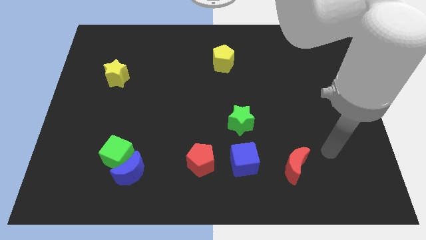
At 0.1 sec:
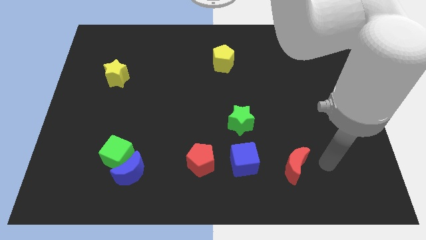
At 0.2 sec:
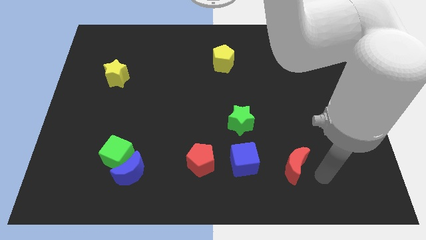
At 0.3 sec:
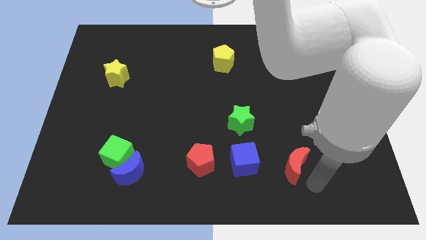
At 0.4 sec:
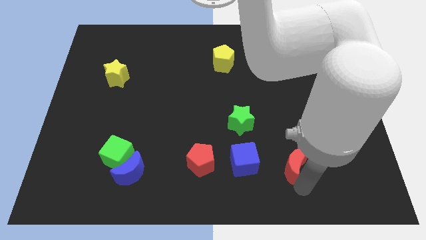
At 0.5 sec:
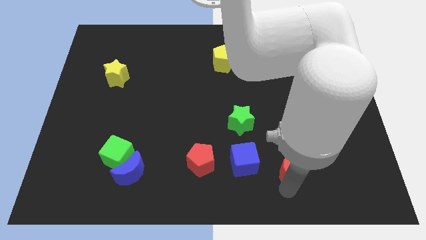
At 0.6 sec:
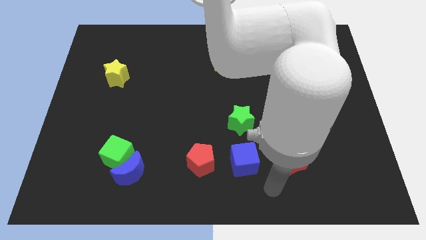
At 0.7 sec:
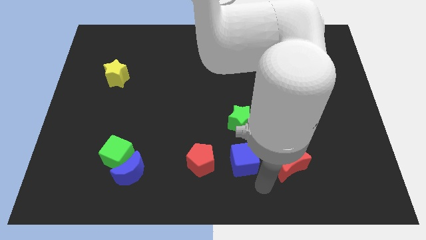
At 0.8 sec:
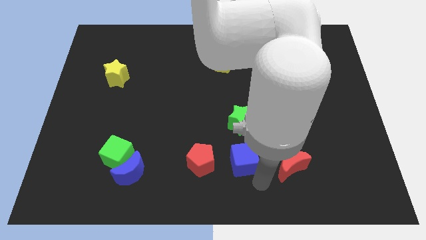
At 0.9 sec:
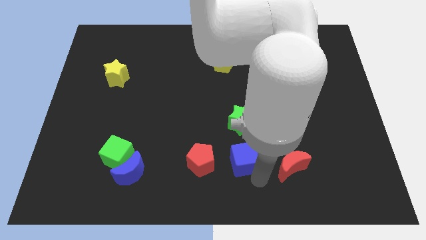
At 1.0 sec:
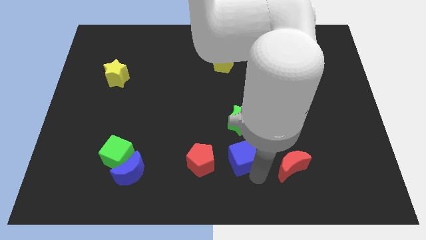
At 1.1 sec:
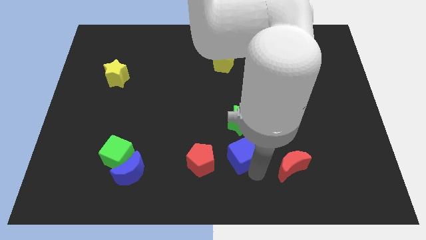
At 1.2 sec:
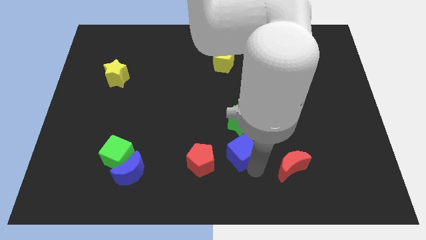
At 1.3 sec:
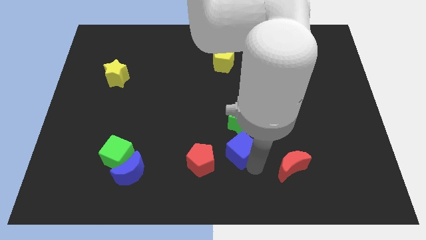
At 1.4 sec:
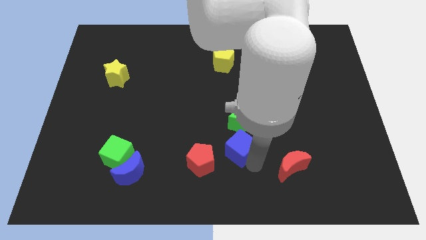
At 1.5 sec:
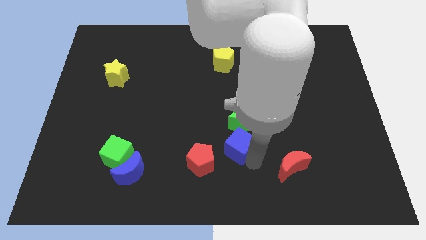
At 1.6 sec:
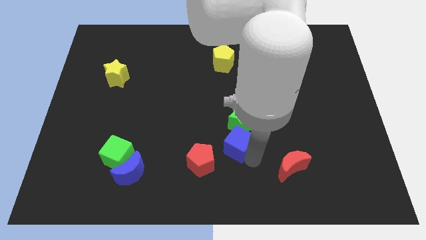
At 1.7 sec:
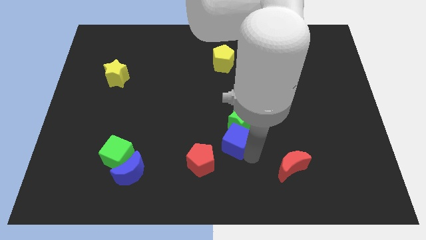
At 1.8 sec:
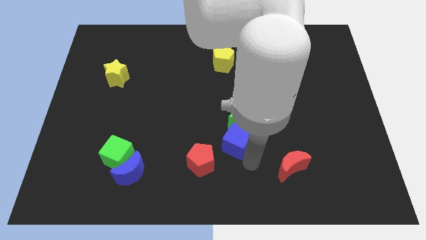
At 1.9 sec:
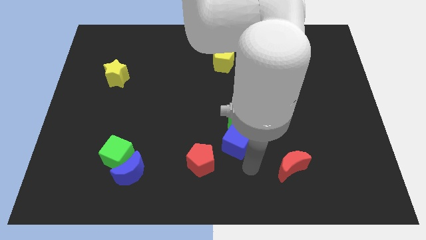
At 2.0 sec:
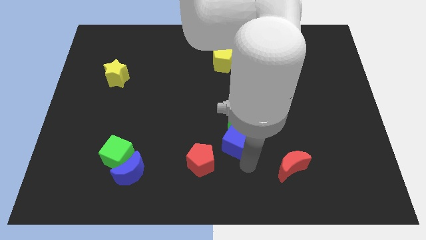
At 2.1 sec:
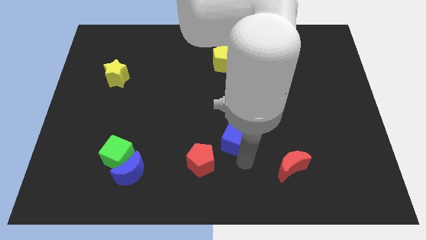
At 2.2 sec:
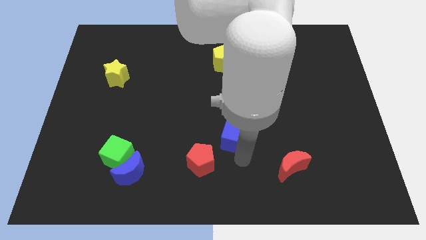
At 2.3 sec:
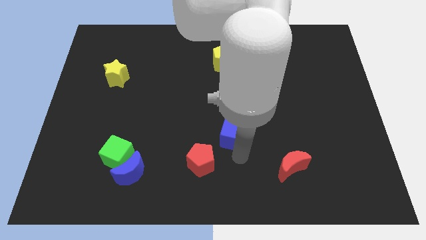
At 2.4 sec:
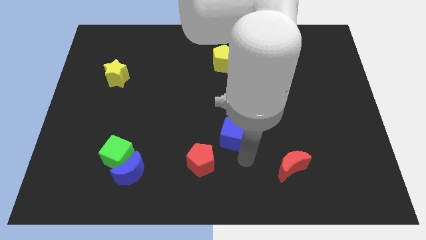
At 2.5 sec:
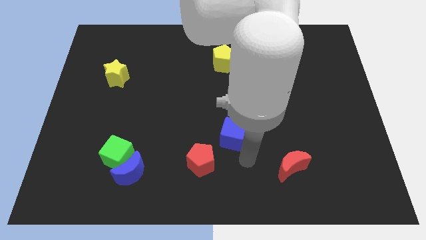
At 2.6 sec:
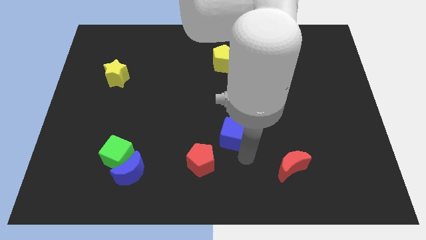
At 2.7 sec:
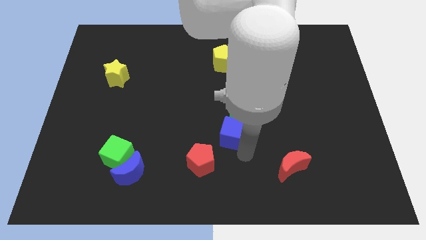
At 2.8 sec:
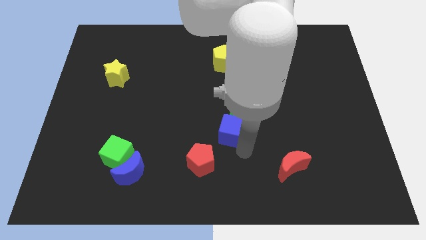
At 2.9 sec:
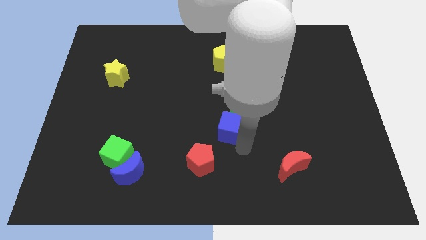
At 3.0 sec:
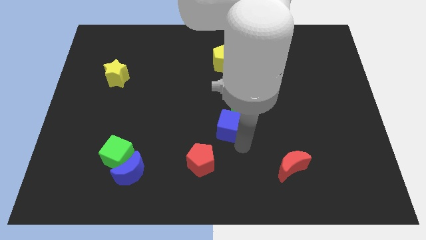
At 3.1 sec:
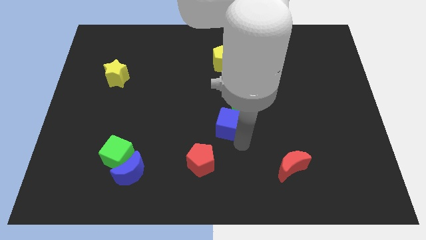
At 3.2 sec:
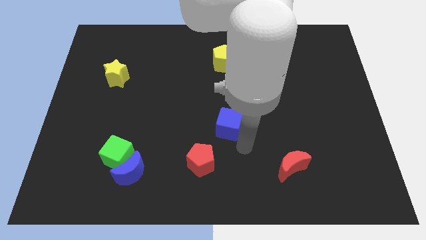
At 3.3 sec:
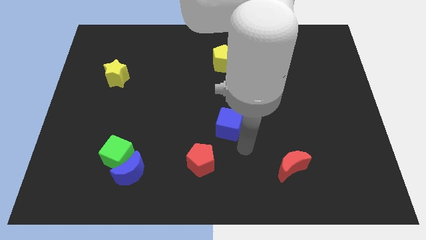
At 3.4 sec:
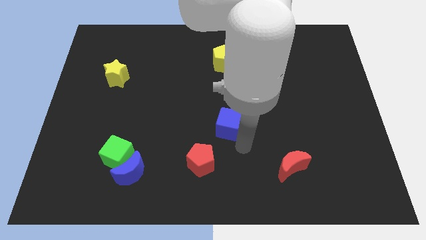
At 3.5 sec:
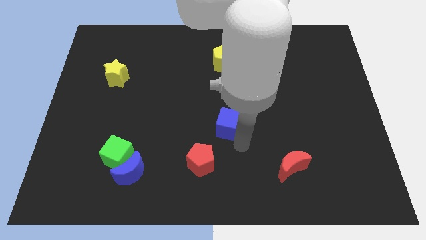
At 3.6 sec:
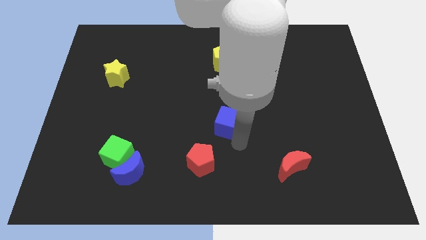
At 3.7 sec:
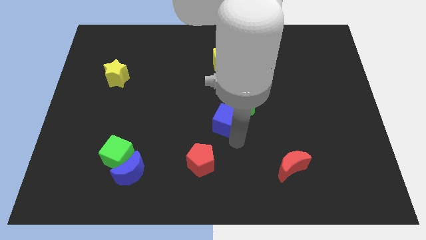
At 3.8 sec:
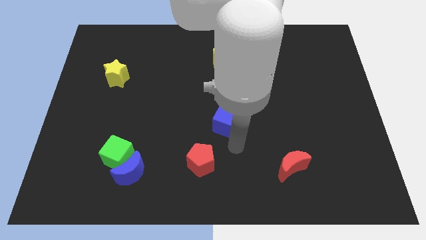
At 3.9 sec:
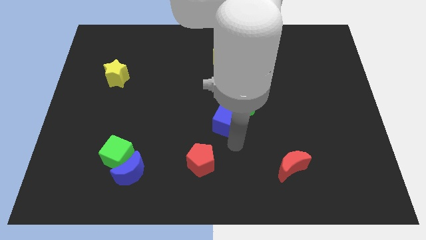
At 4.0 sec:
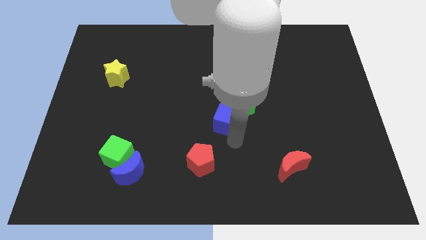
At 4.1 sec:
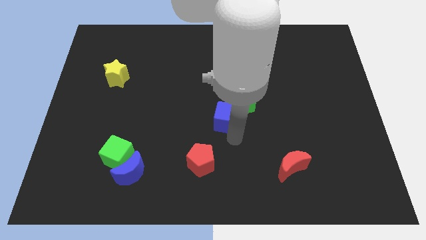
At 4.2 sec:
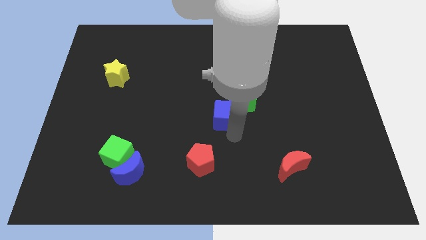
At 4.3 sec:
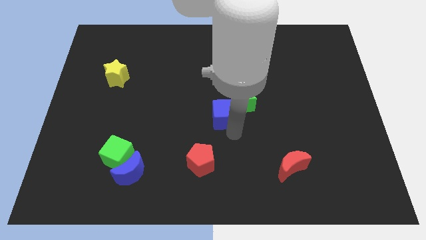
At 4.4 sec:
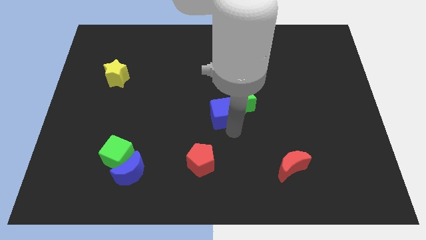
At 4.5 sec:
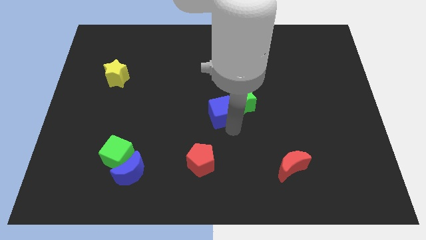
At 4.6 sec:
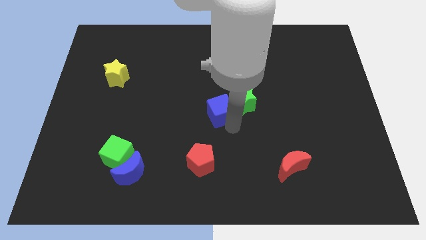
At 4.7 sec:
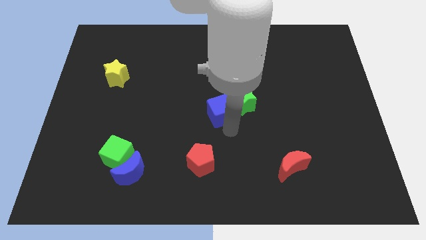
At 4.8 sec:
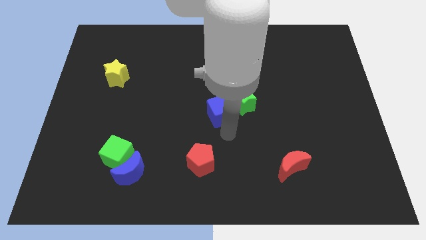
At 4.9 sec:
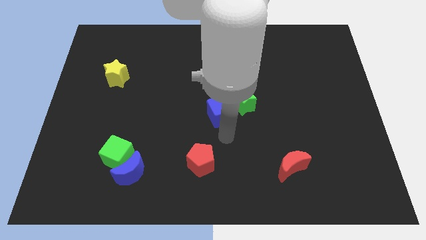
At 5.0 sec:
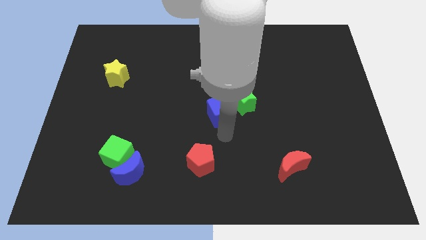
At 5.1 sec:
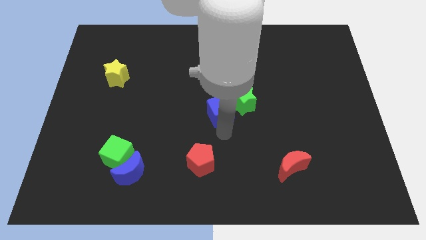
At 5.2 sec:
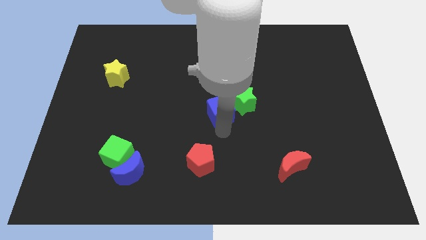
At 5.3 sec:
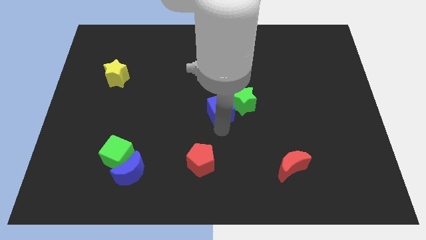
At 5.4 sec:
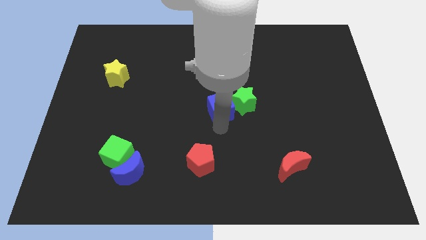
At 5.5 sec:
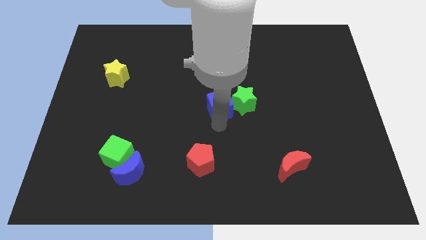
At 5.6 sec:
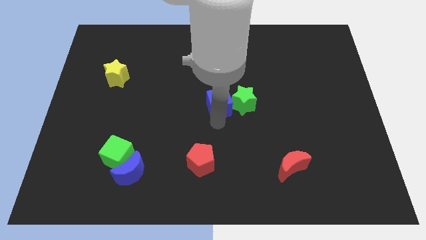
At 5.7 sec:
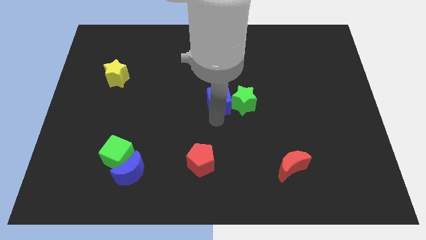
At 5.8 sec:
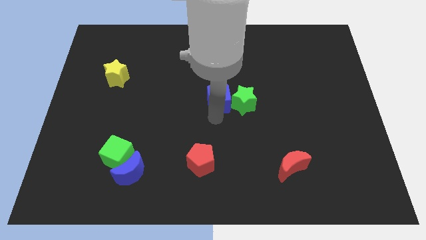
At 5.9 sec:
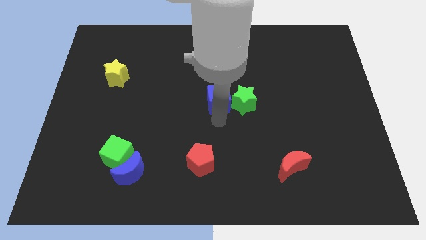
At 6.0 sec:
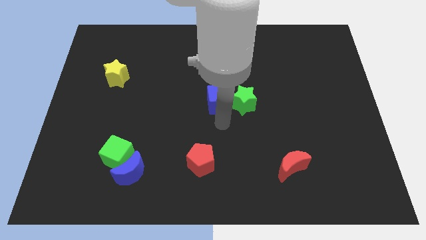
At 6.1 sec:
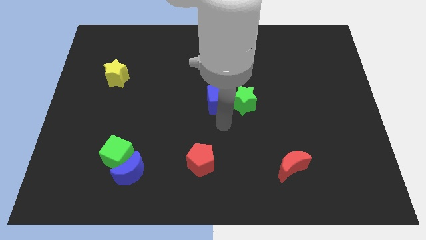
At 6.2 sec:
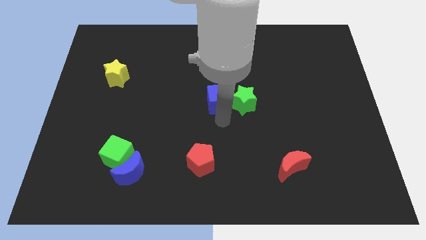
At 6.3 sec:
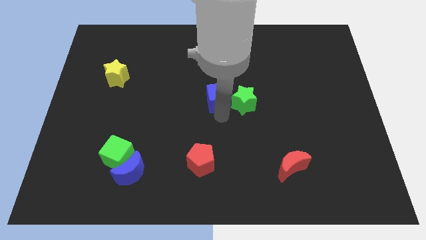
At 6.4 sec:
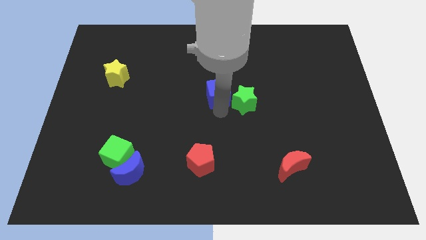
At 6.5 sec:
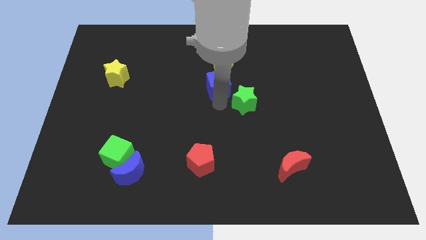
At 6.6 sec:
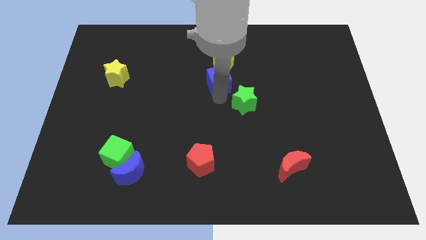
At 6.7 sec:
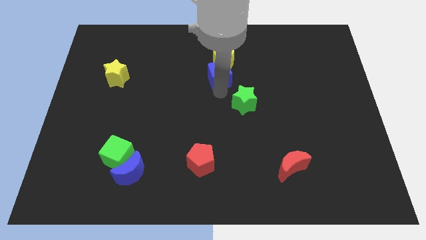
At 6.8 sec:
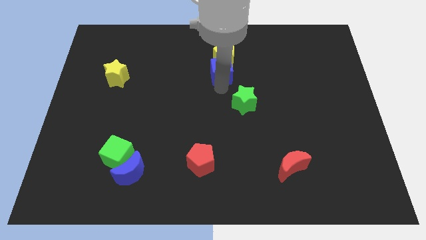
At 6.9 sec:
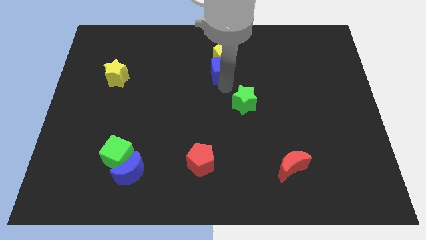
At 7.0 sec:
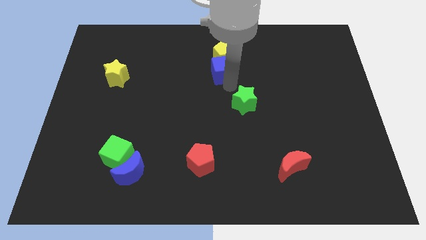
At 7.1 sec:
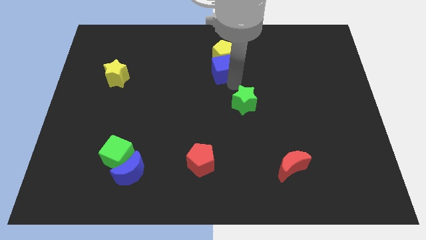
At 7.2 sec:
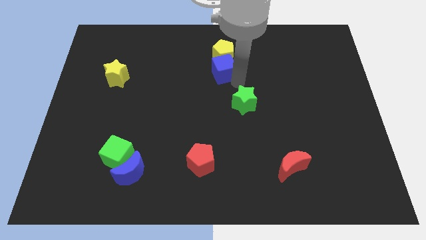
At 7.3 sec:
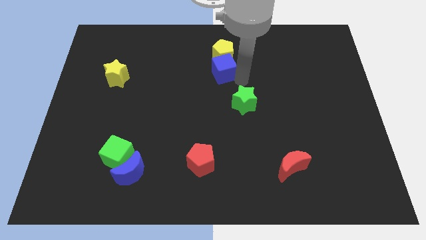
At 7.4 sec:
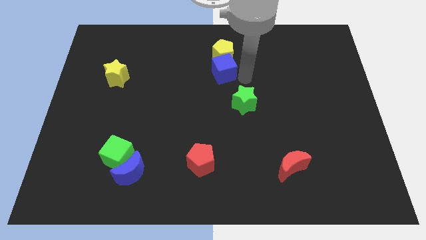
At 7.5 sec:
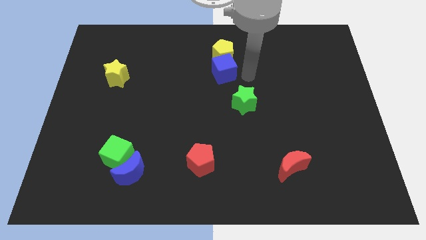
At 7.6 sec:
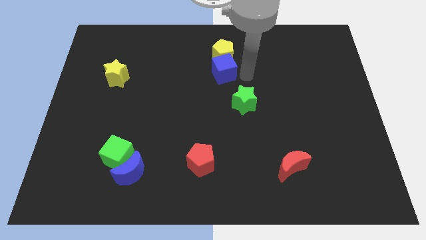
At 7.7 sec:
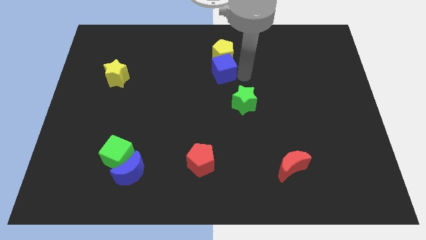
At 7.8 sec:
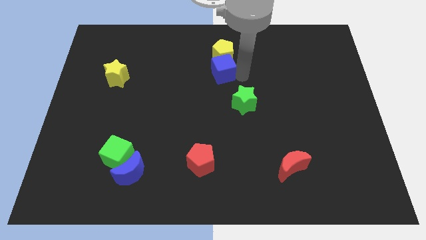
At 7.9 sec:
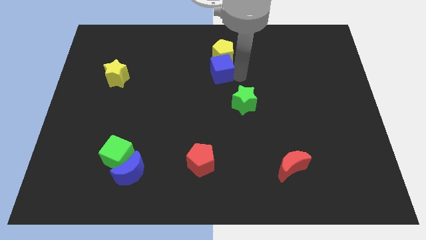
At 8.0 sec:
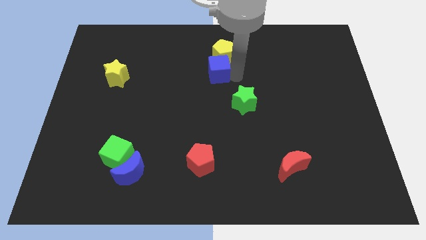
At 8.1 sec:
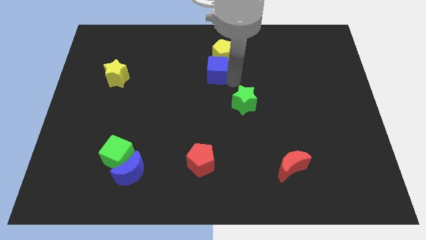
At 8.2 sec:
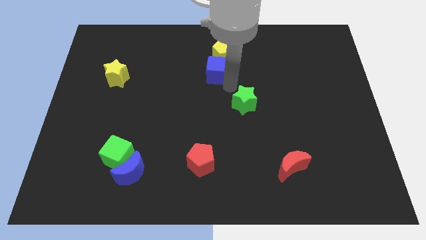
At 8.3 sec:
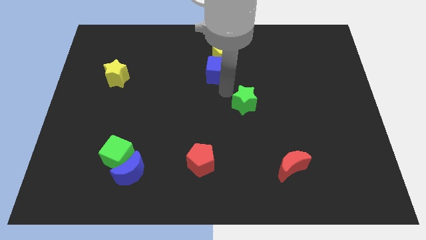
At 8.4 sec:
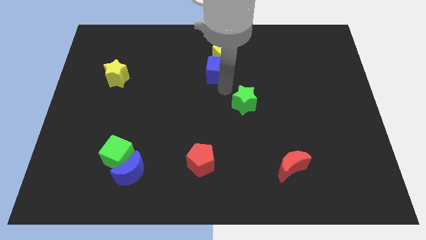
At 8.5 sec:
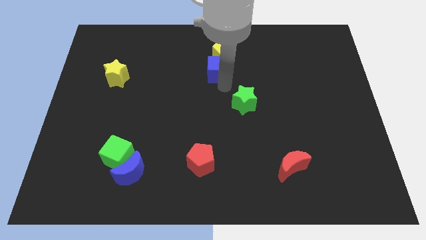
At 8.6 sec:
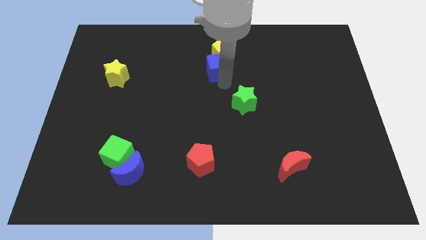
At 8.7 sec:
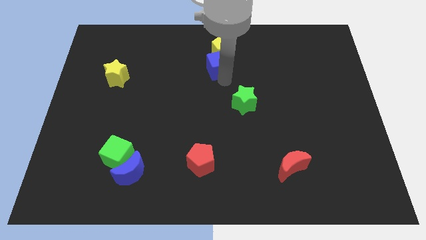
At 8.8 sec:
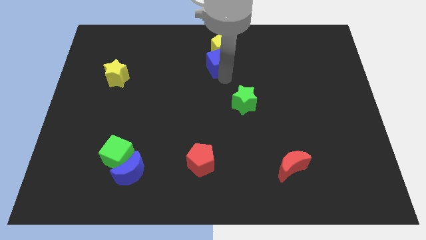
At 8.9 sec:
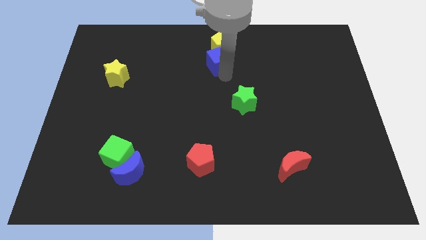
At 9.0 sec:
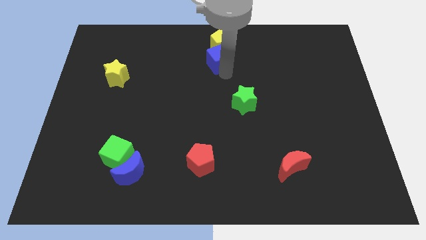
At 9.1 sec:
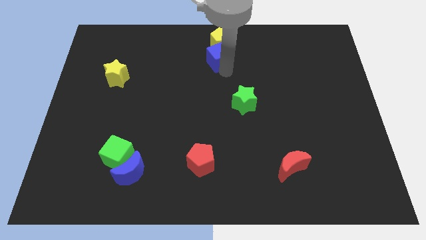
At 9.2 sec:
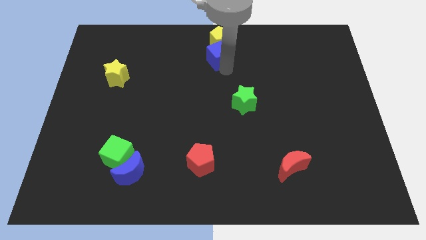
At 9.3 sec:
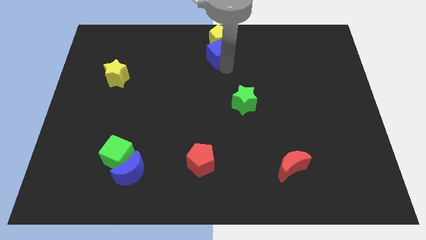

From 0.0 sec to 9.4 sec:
put the blue cube to the towards your base
